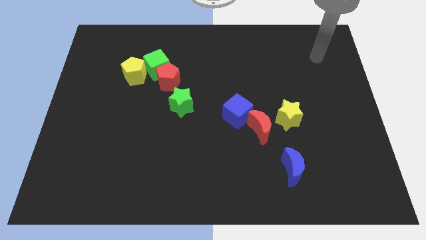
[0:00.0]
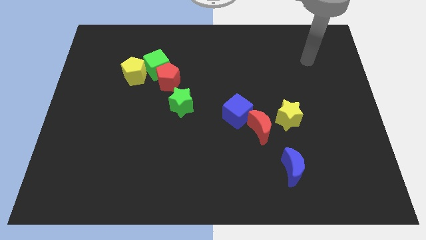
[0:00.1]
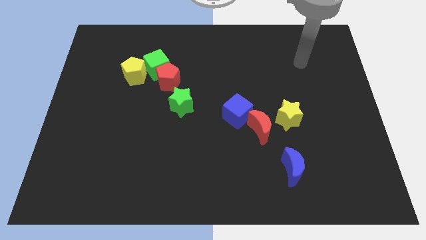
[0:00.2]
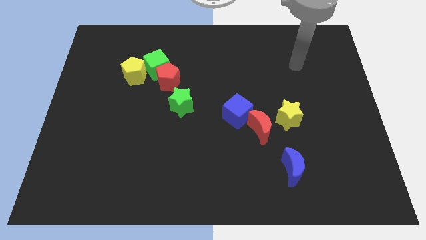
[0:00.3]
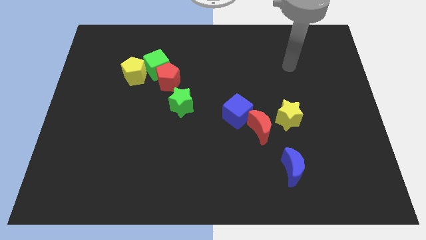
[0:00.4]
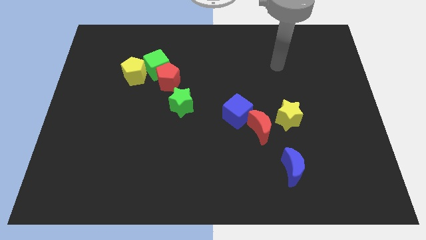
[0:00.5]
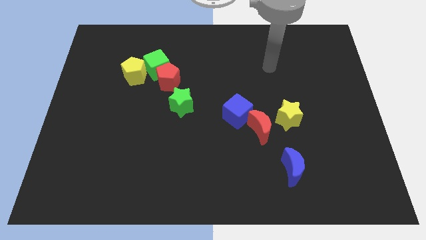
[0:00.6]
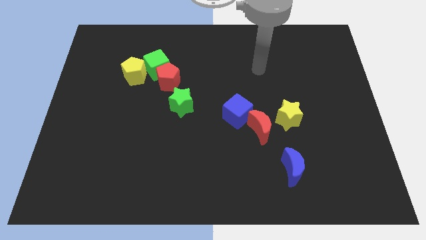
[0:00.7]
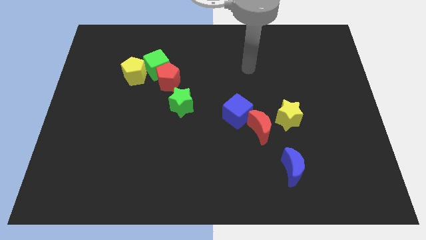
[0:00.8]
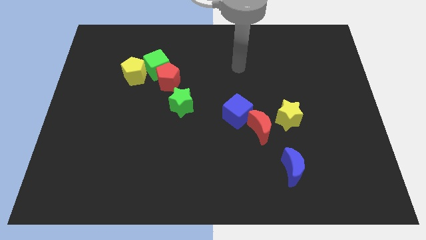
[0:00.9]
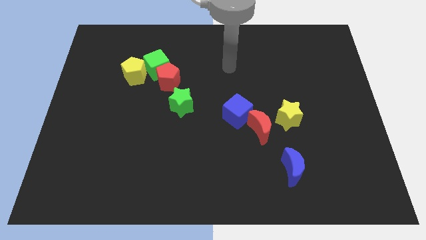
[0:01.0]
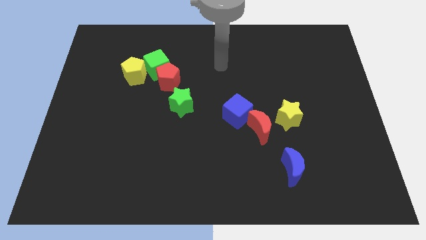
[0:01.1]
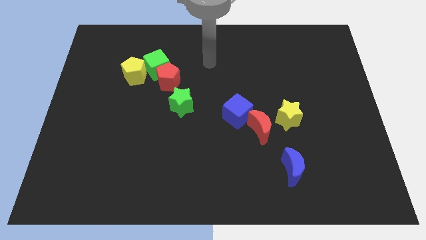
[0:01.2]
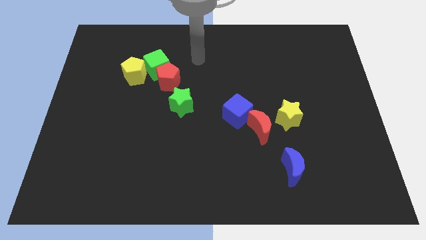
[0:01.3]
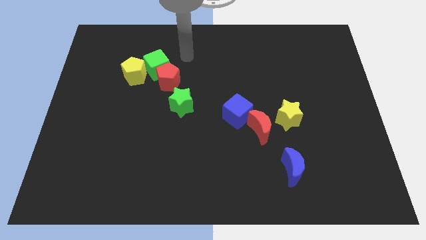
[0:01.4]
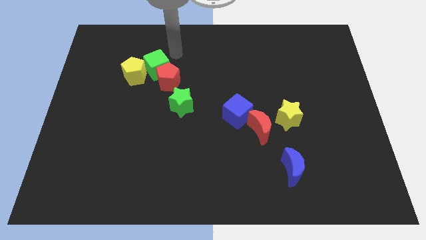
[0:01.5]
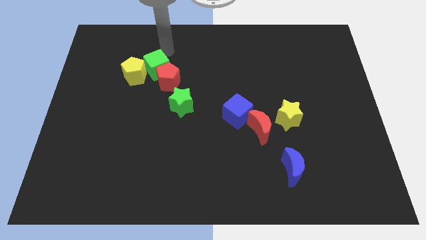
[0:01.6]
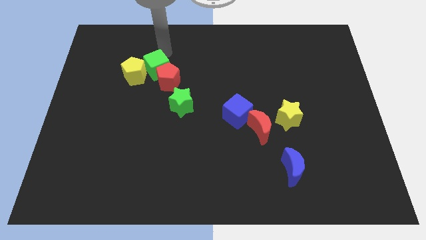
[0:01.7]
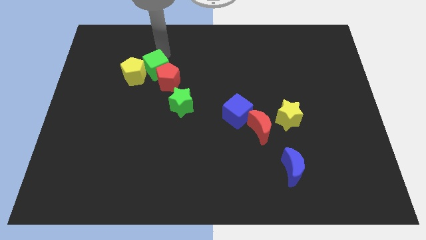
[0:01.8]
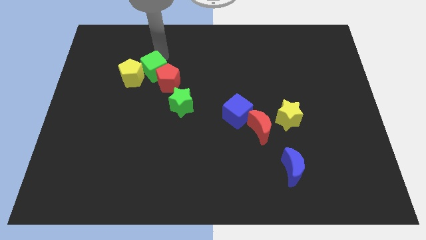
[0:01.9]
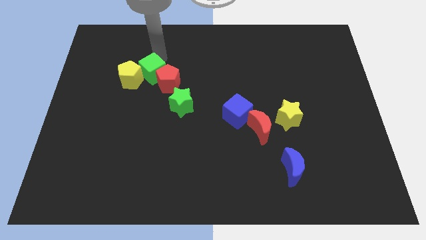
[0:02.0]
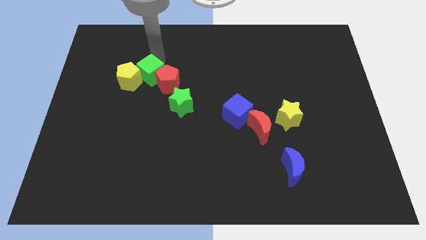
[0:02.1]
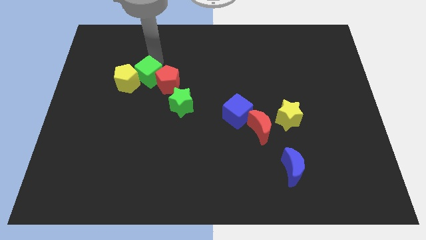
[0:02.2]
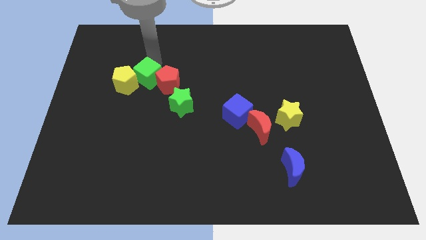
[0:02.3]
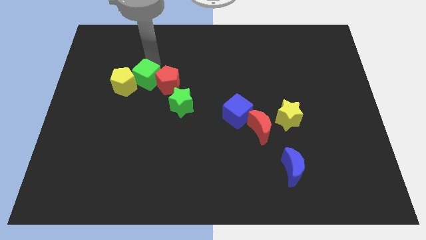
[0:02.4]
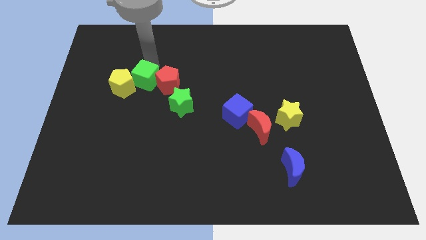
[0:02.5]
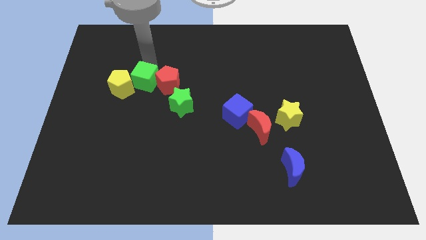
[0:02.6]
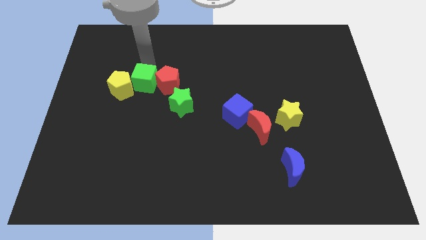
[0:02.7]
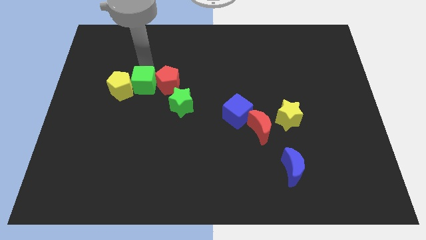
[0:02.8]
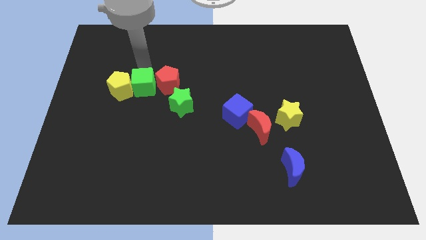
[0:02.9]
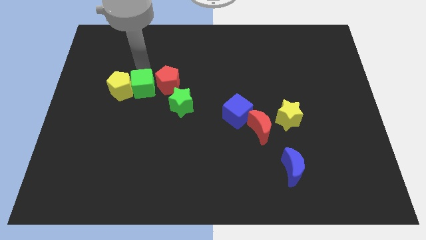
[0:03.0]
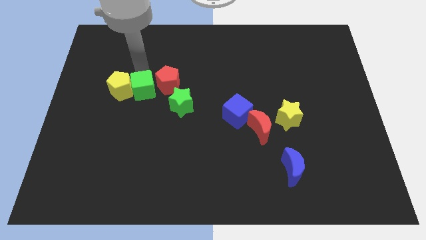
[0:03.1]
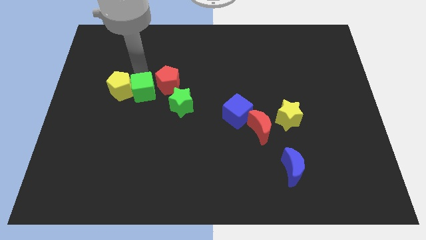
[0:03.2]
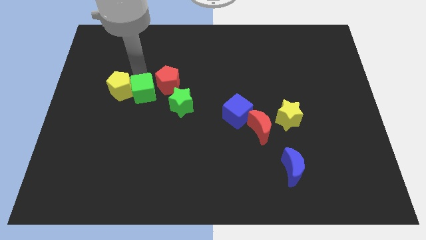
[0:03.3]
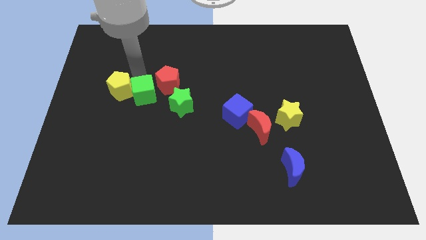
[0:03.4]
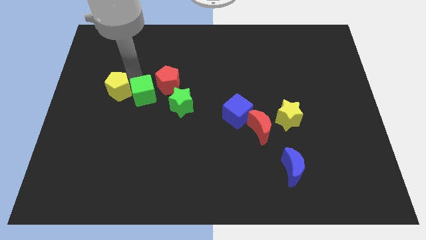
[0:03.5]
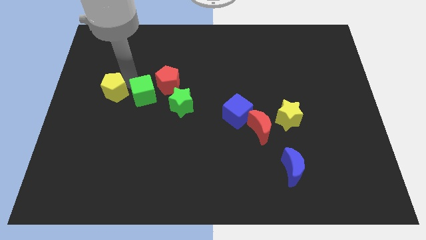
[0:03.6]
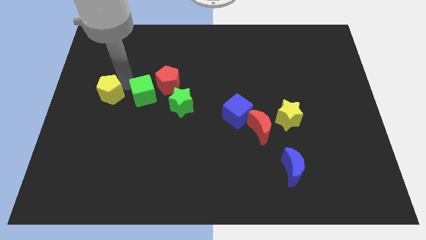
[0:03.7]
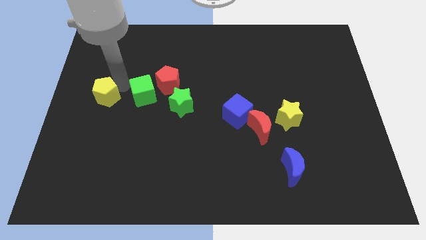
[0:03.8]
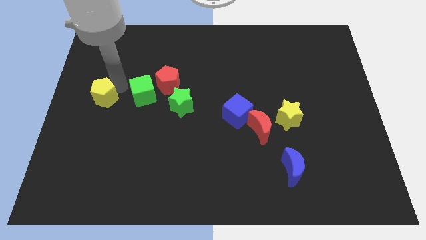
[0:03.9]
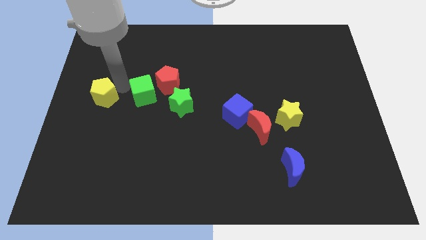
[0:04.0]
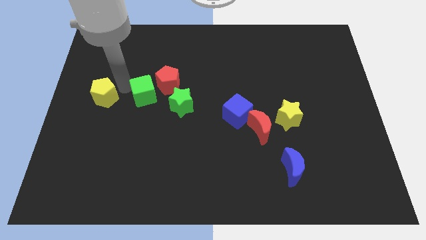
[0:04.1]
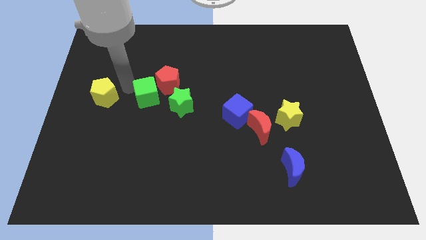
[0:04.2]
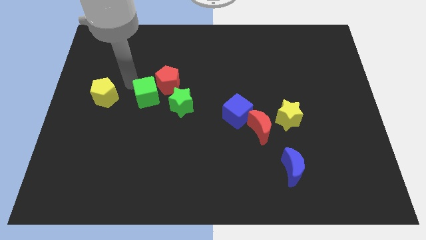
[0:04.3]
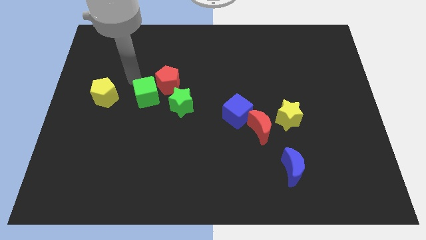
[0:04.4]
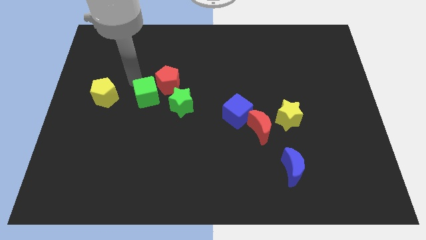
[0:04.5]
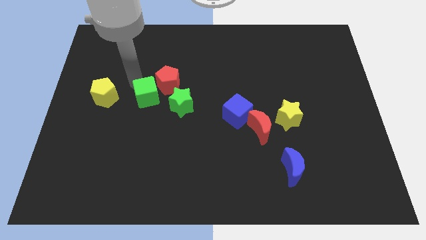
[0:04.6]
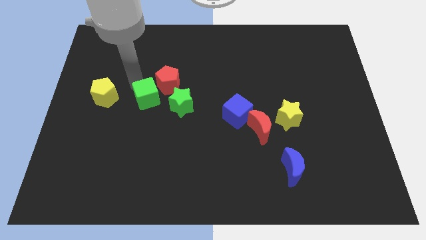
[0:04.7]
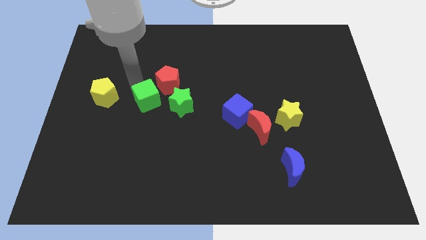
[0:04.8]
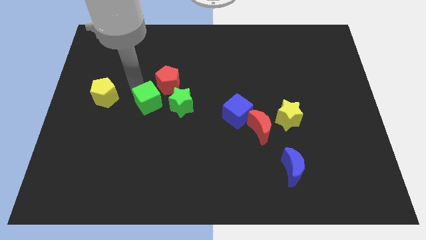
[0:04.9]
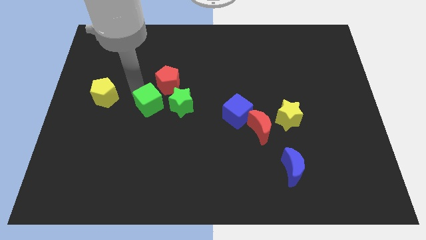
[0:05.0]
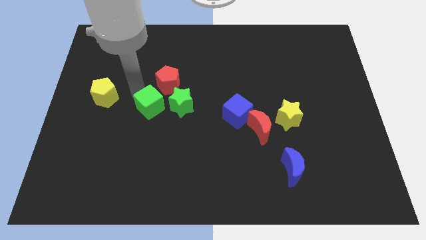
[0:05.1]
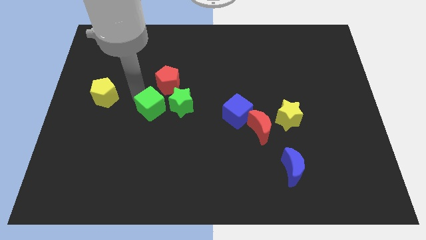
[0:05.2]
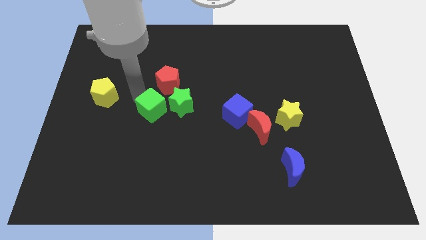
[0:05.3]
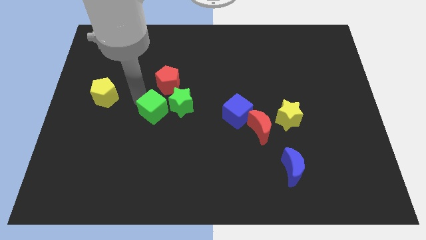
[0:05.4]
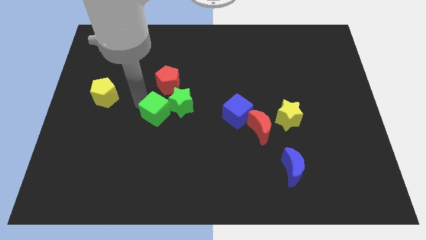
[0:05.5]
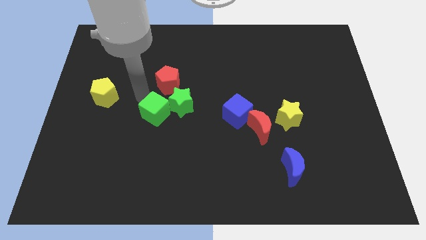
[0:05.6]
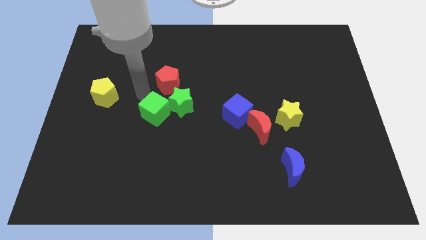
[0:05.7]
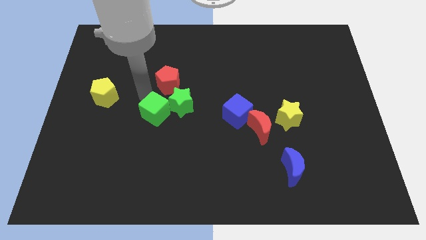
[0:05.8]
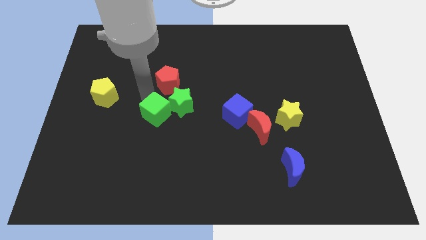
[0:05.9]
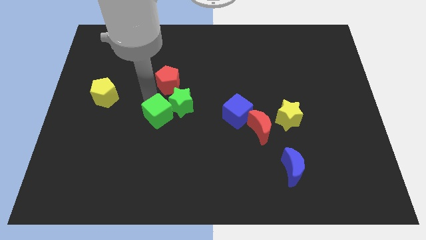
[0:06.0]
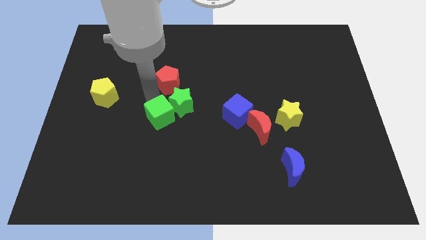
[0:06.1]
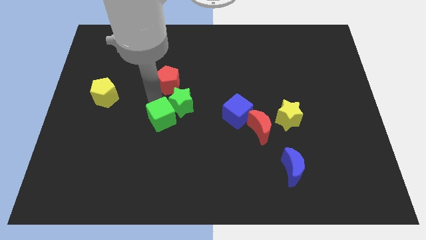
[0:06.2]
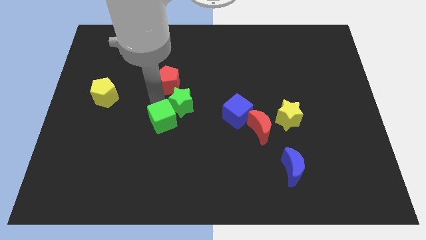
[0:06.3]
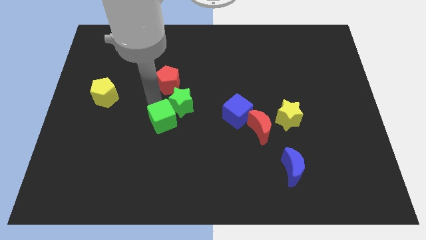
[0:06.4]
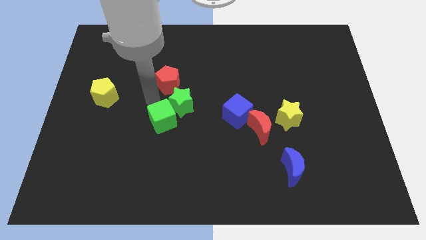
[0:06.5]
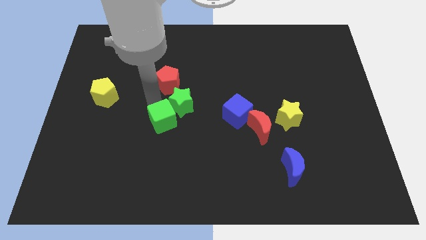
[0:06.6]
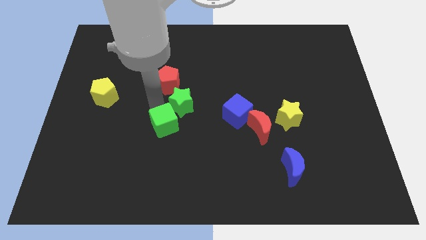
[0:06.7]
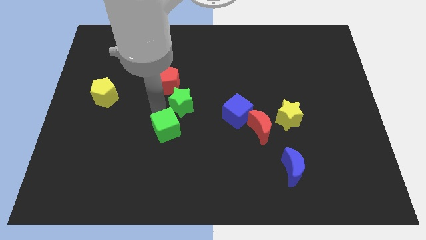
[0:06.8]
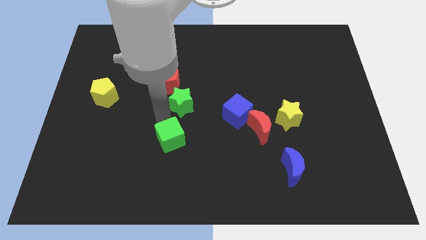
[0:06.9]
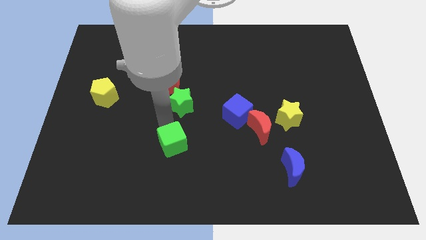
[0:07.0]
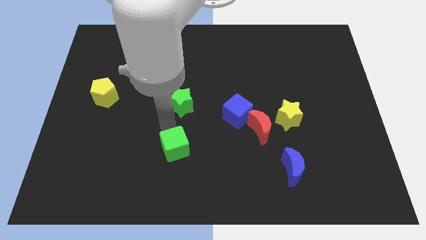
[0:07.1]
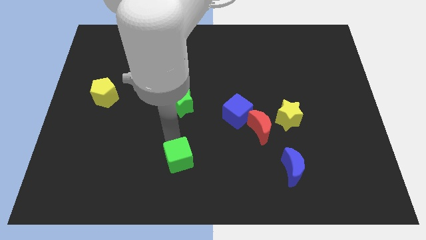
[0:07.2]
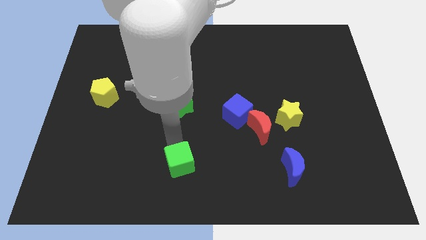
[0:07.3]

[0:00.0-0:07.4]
slide the green cube to the bottom side
